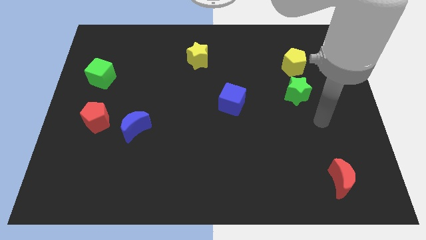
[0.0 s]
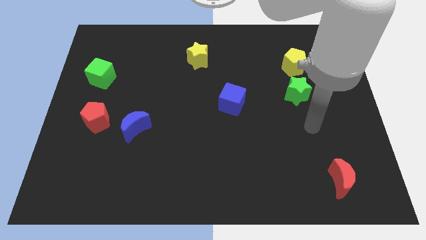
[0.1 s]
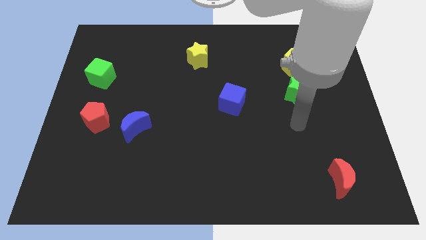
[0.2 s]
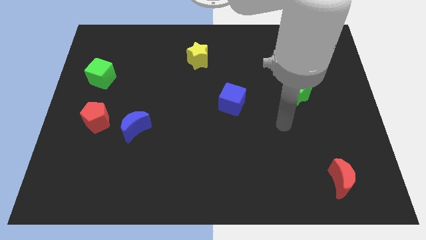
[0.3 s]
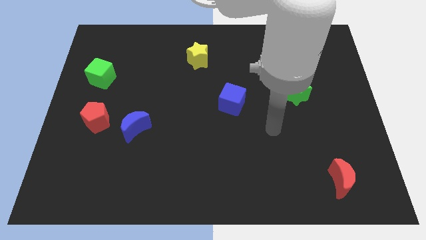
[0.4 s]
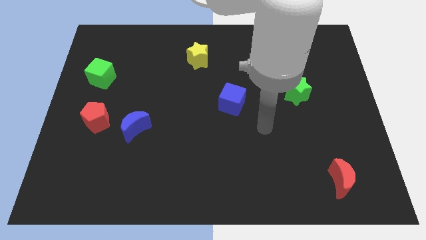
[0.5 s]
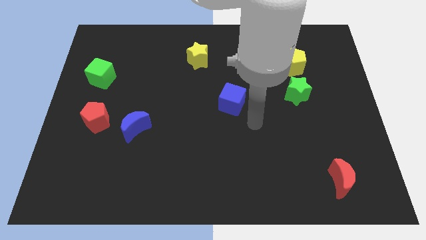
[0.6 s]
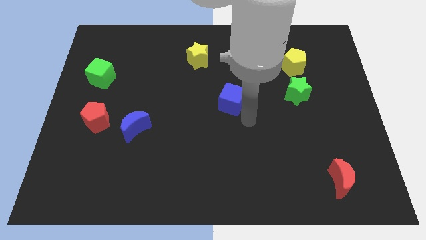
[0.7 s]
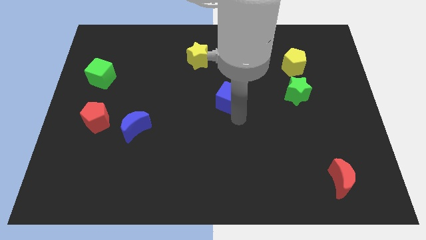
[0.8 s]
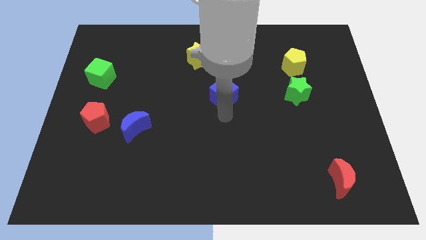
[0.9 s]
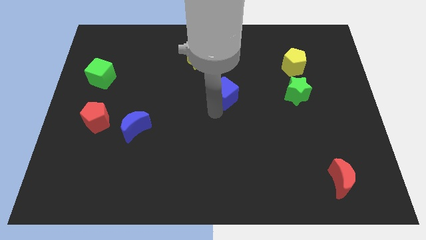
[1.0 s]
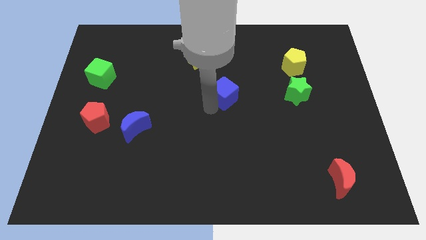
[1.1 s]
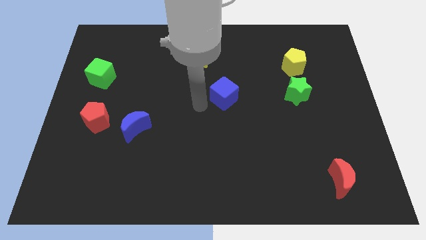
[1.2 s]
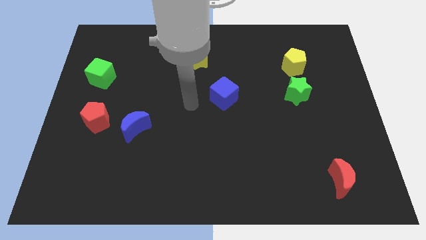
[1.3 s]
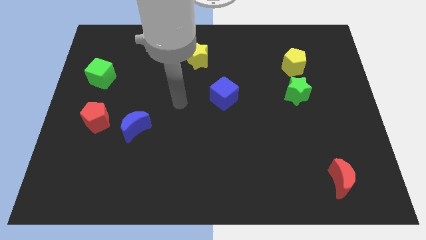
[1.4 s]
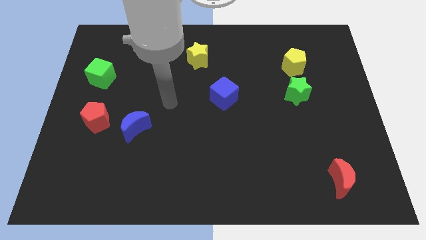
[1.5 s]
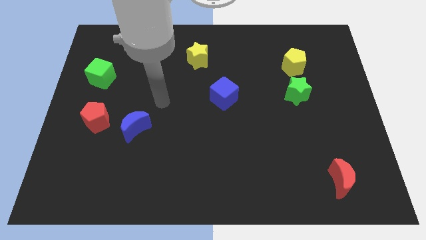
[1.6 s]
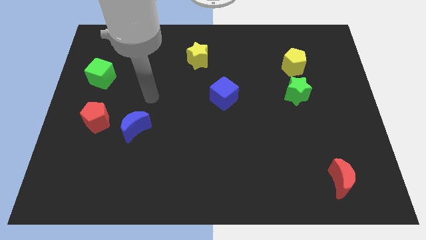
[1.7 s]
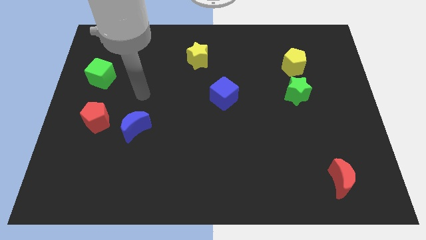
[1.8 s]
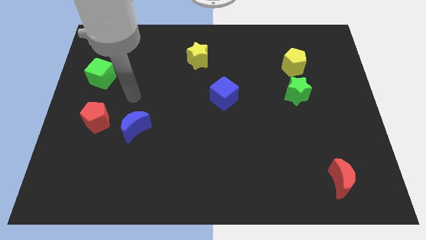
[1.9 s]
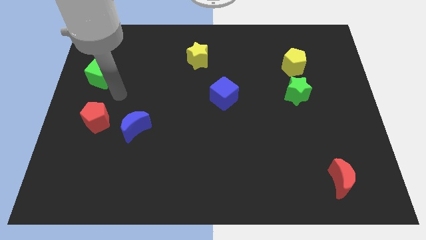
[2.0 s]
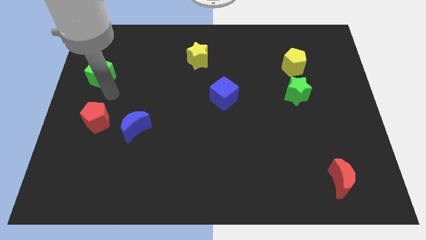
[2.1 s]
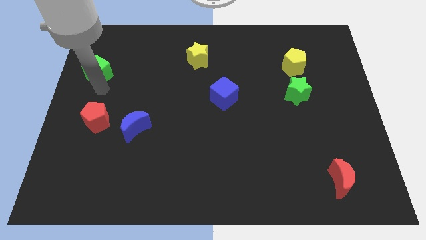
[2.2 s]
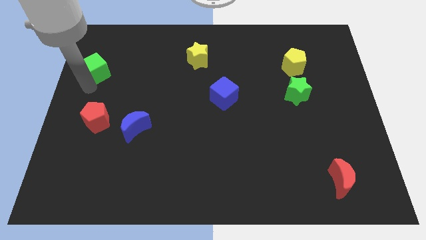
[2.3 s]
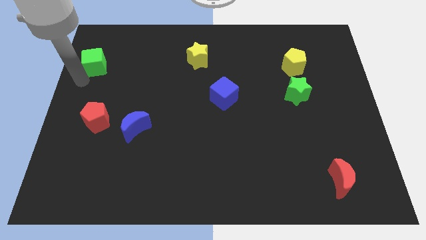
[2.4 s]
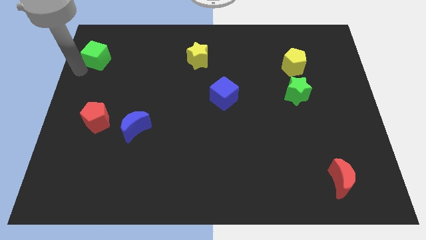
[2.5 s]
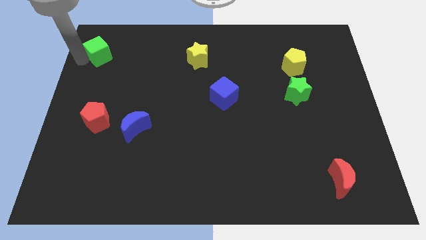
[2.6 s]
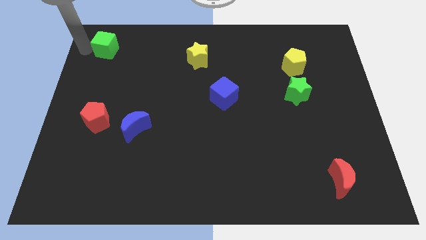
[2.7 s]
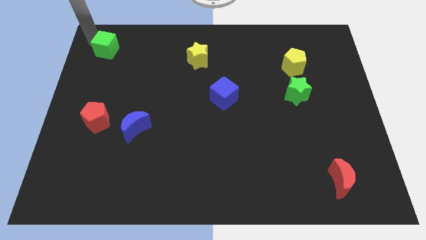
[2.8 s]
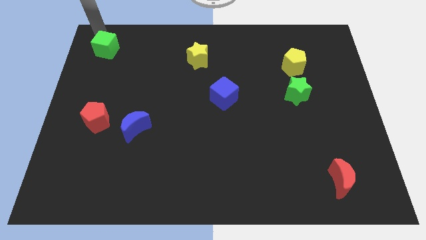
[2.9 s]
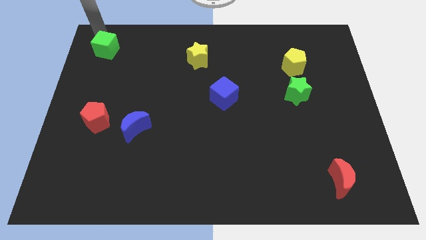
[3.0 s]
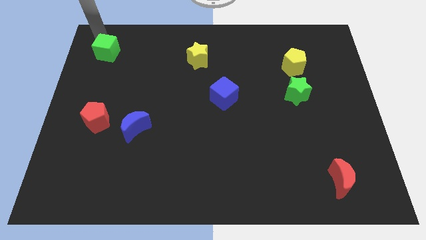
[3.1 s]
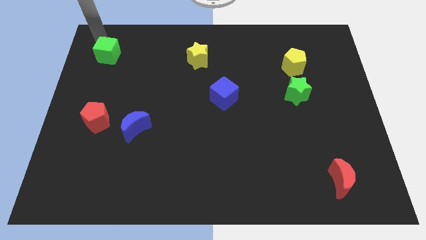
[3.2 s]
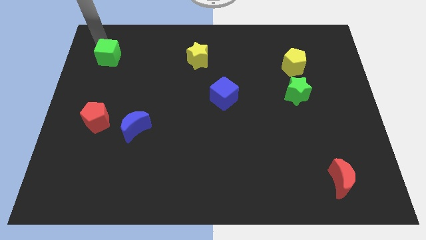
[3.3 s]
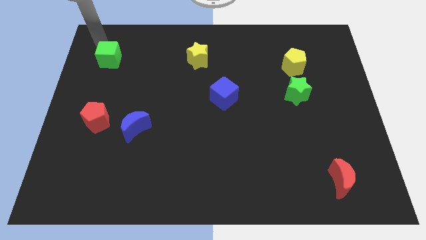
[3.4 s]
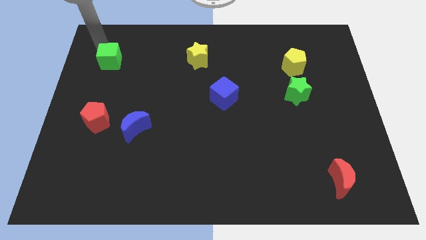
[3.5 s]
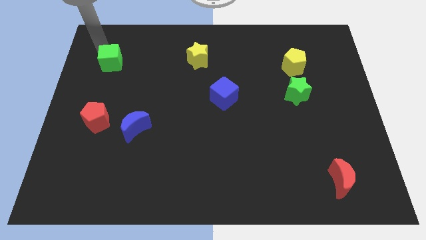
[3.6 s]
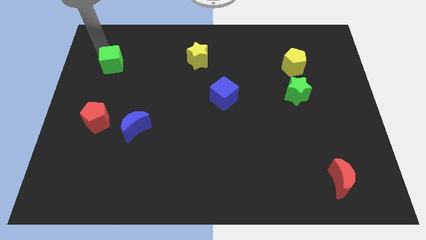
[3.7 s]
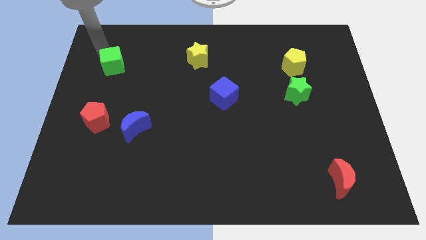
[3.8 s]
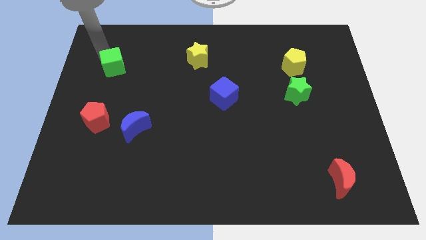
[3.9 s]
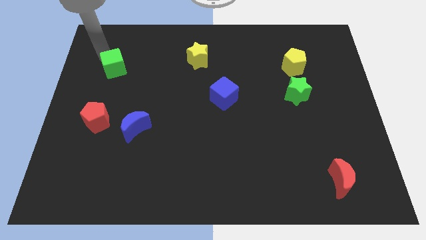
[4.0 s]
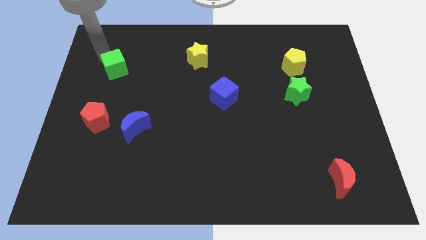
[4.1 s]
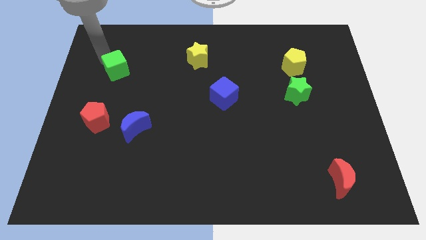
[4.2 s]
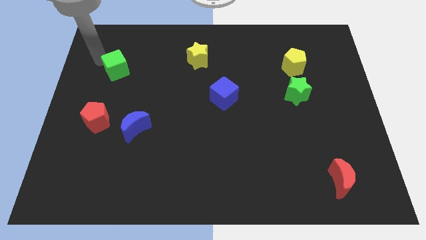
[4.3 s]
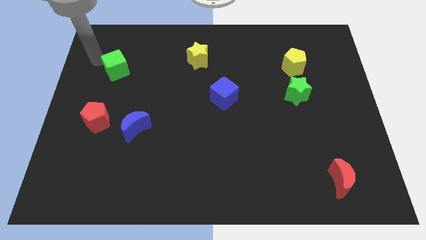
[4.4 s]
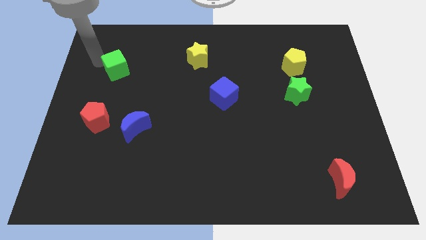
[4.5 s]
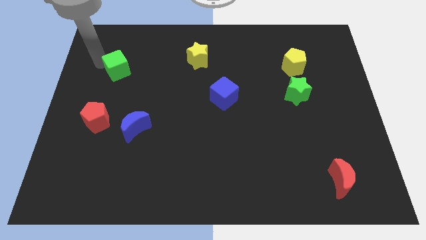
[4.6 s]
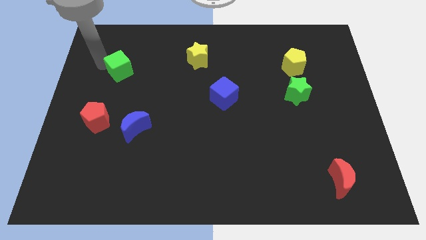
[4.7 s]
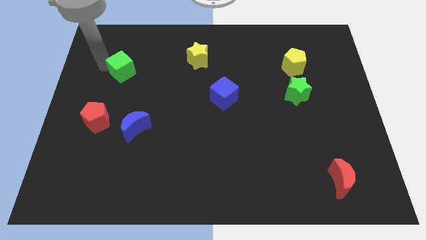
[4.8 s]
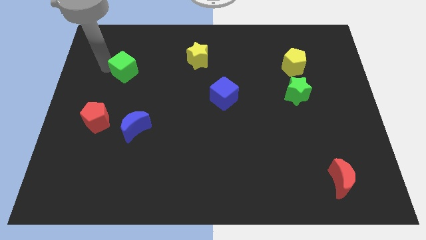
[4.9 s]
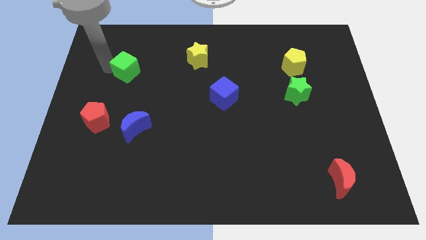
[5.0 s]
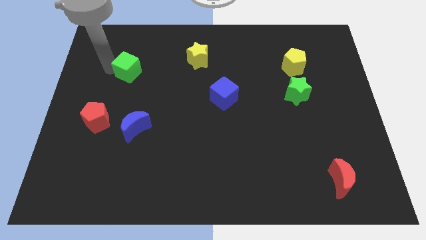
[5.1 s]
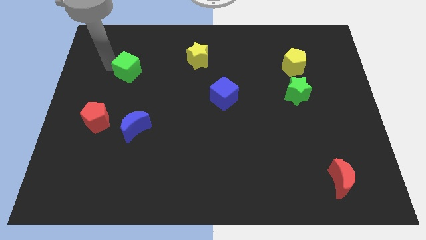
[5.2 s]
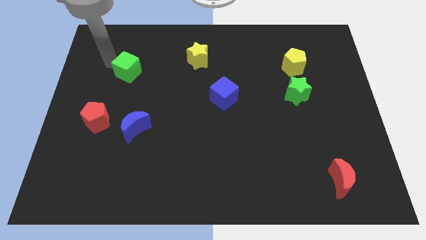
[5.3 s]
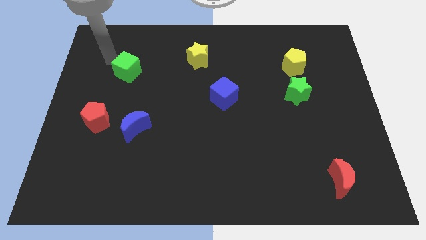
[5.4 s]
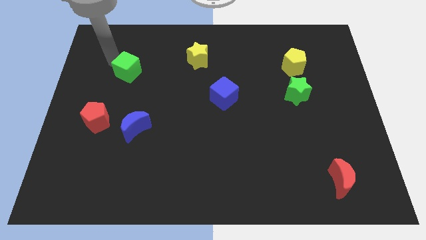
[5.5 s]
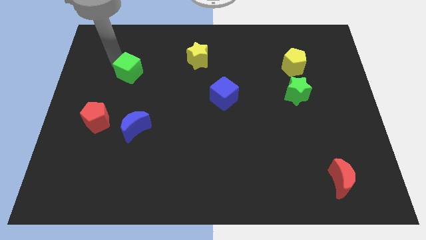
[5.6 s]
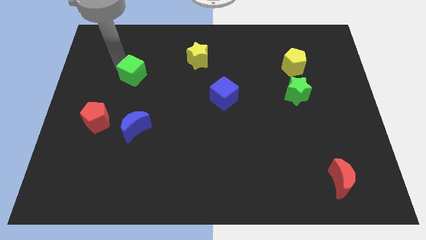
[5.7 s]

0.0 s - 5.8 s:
slide the green cube slightly to the right

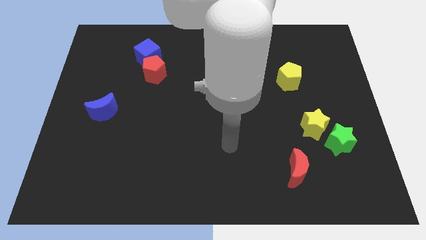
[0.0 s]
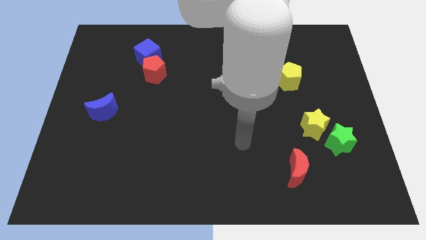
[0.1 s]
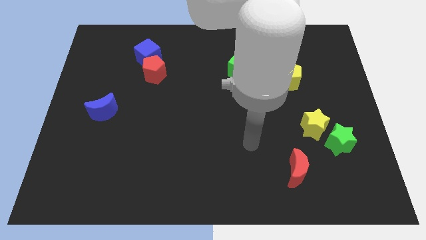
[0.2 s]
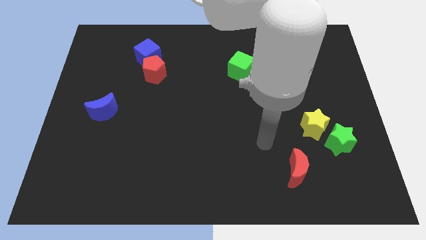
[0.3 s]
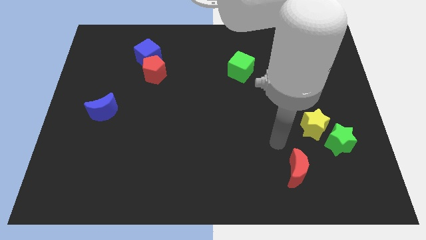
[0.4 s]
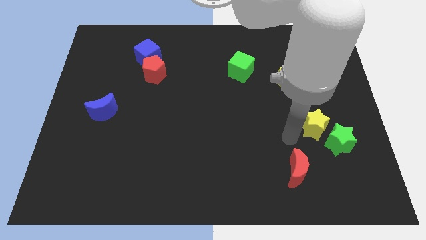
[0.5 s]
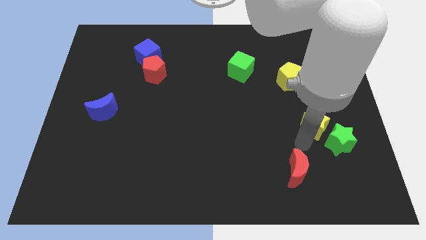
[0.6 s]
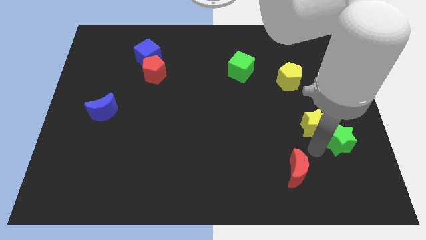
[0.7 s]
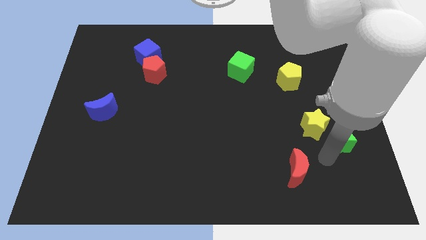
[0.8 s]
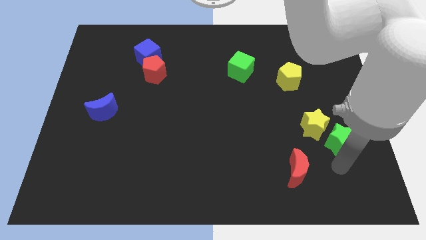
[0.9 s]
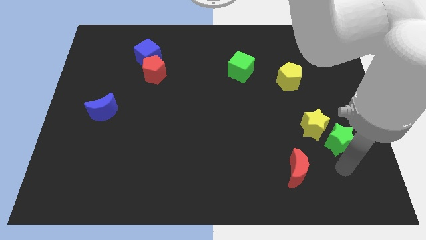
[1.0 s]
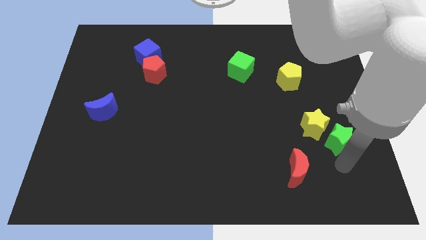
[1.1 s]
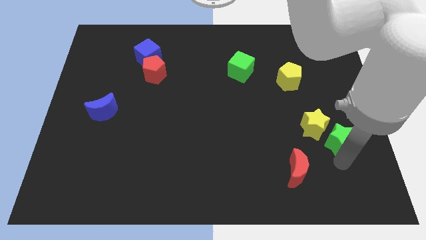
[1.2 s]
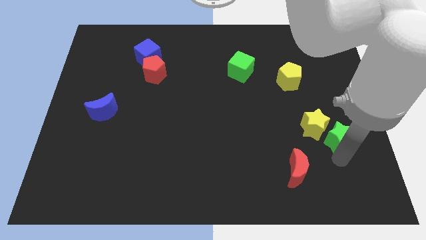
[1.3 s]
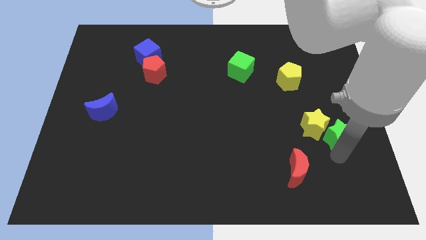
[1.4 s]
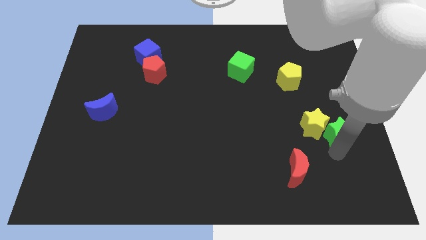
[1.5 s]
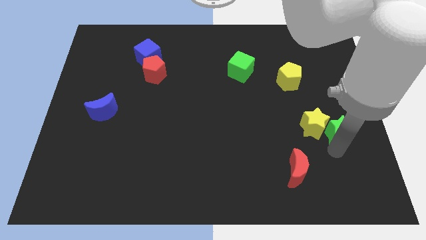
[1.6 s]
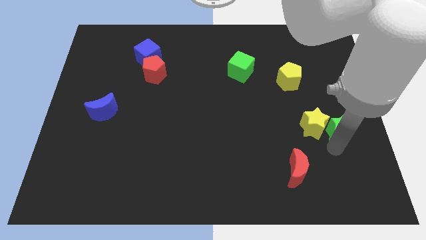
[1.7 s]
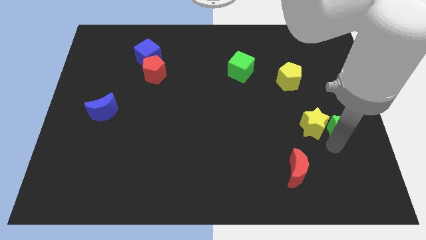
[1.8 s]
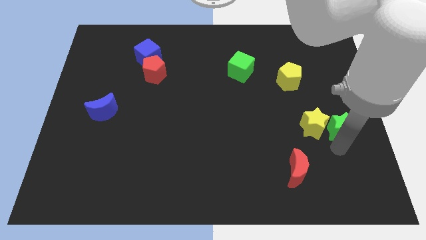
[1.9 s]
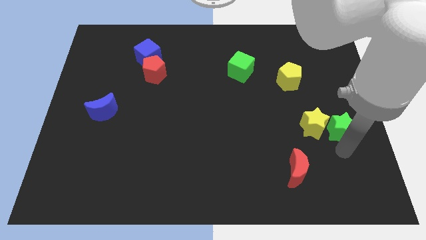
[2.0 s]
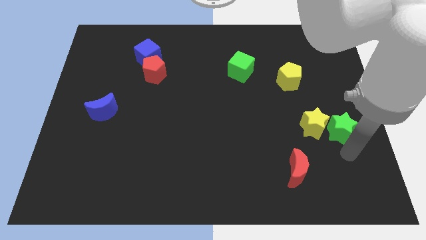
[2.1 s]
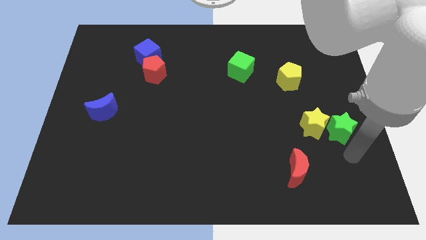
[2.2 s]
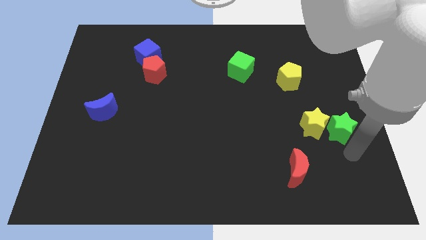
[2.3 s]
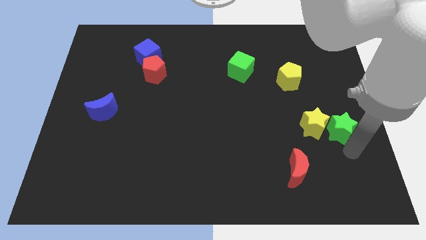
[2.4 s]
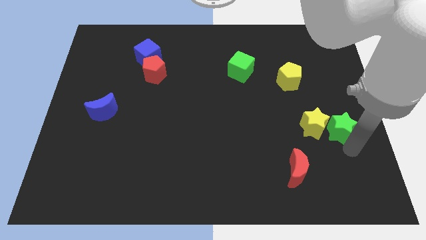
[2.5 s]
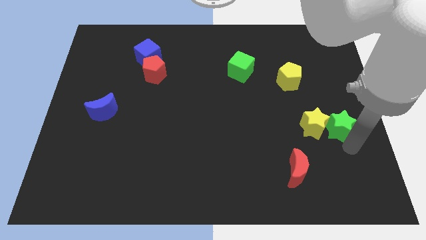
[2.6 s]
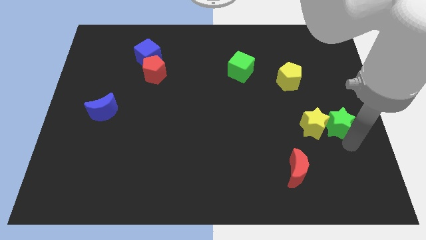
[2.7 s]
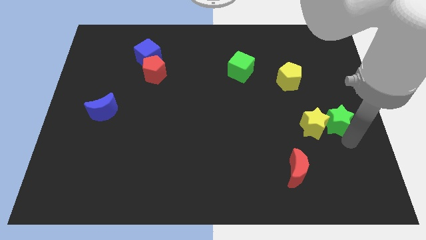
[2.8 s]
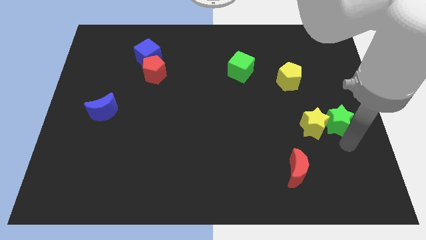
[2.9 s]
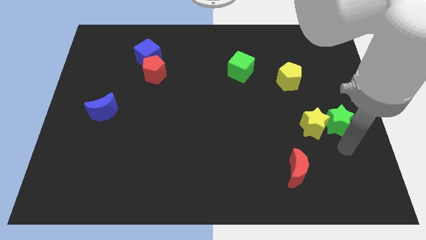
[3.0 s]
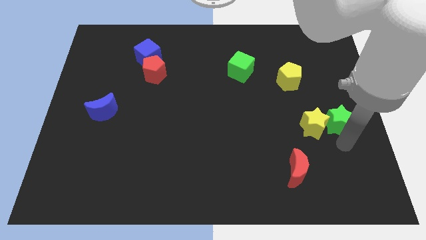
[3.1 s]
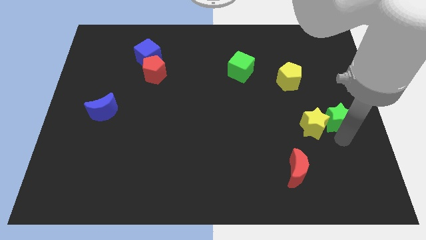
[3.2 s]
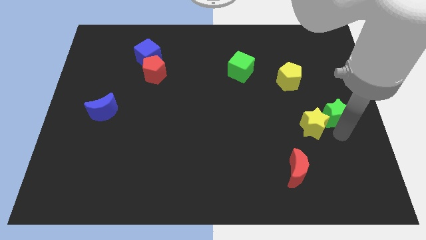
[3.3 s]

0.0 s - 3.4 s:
slide the green star upwards a little
